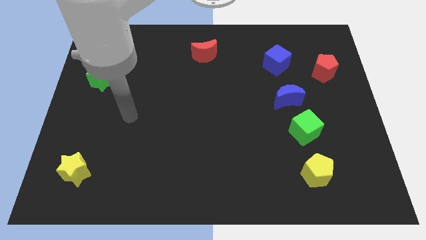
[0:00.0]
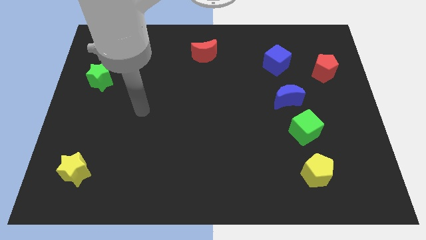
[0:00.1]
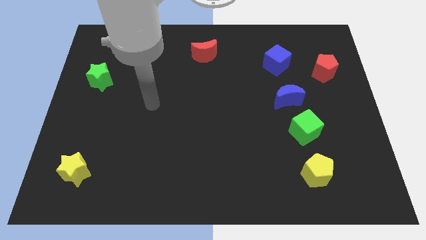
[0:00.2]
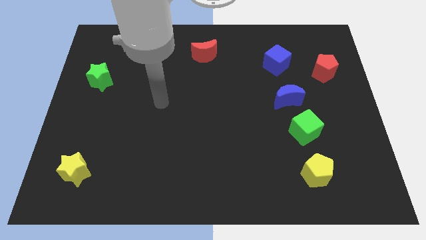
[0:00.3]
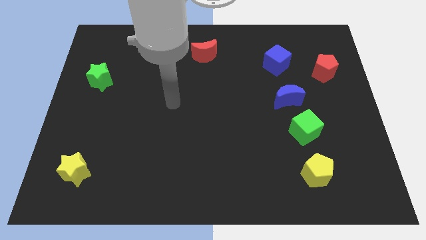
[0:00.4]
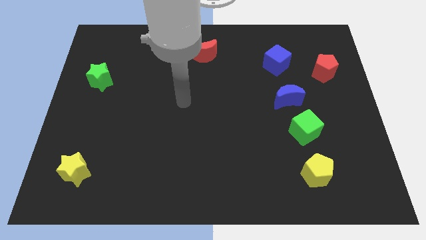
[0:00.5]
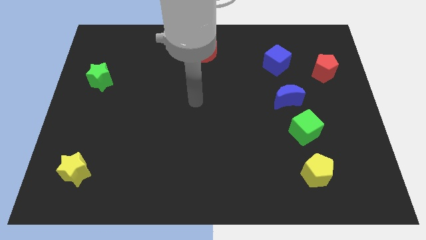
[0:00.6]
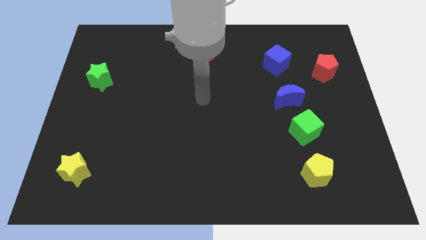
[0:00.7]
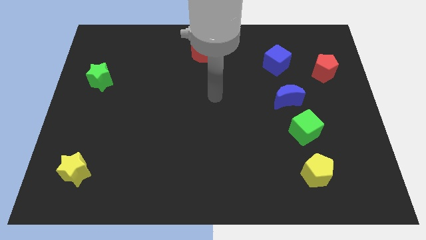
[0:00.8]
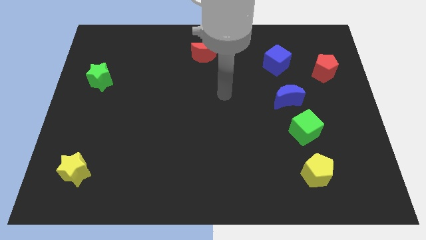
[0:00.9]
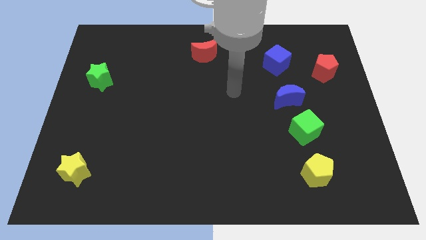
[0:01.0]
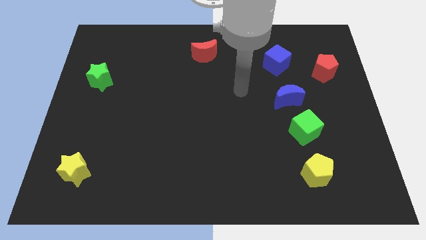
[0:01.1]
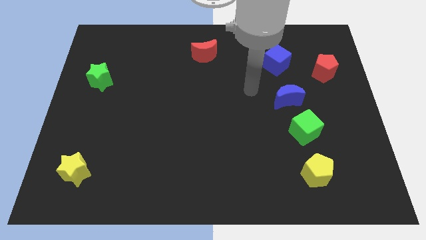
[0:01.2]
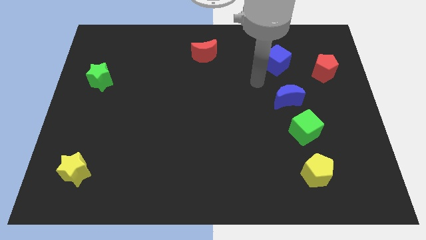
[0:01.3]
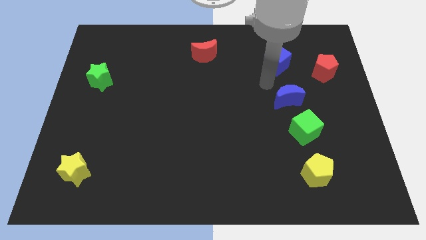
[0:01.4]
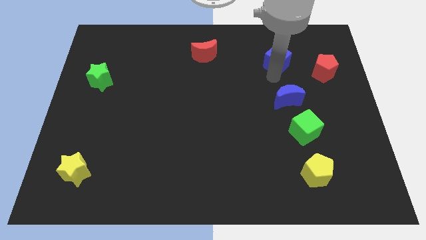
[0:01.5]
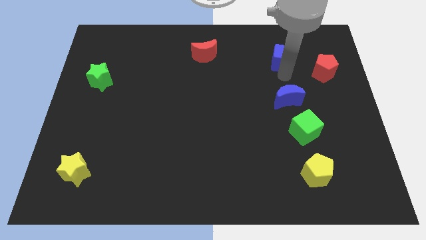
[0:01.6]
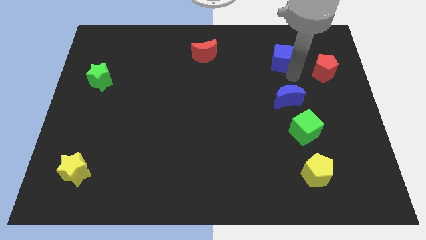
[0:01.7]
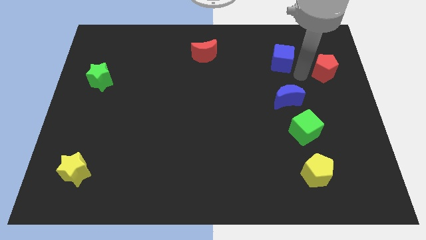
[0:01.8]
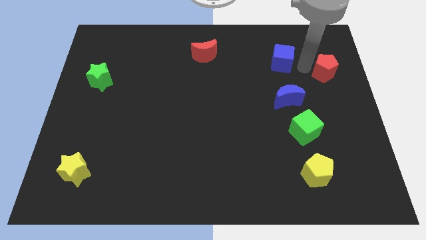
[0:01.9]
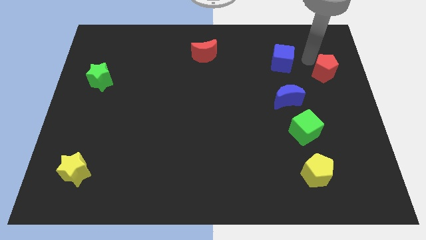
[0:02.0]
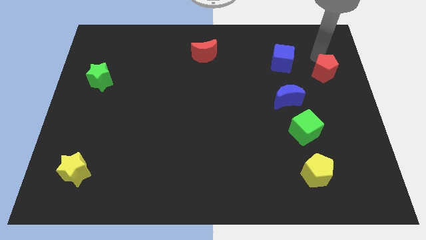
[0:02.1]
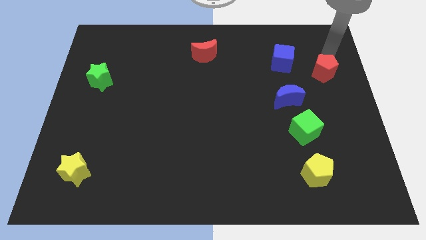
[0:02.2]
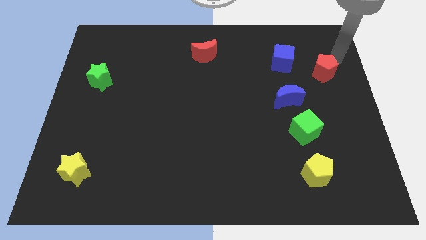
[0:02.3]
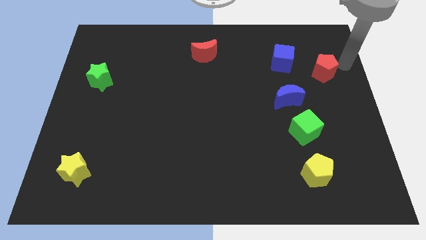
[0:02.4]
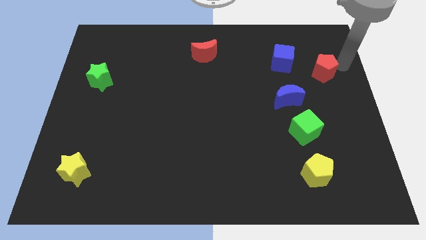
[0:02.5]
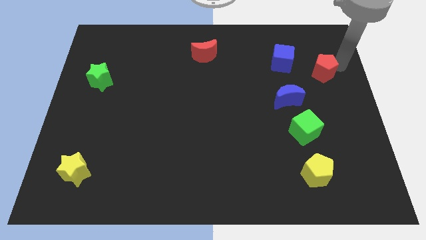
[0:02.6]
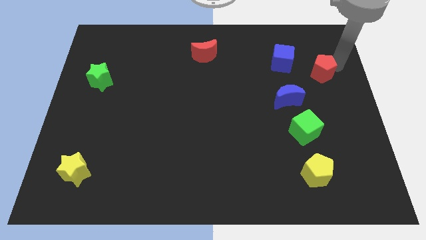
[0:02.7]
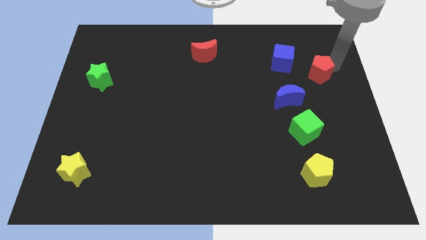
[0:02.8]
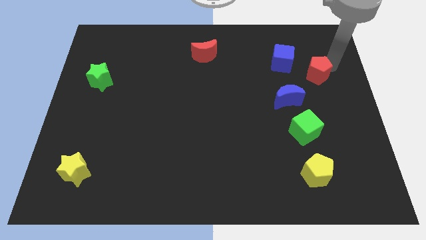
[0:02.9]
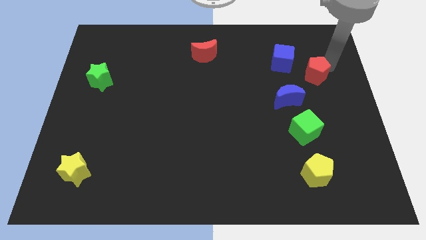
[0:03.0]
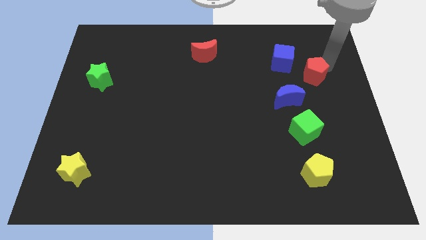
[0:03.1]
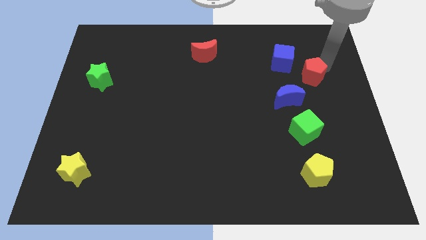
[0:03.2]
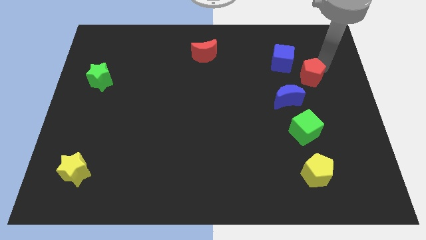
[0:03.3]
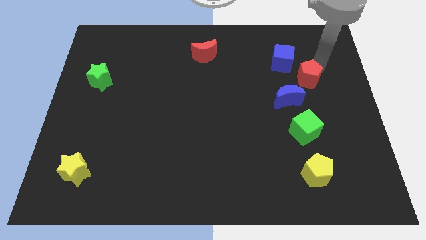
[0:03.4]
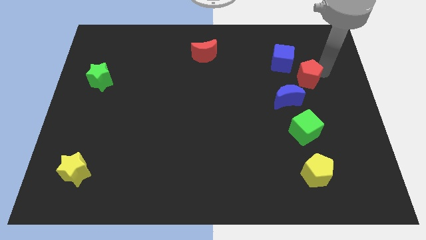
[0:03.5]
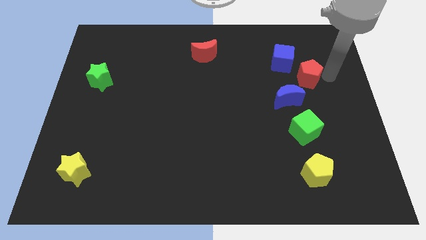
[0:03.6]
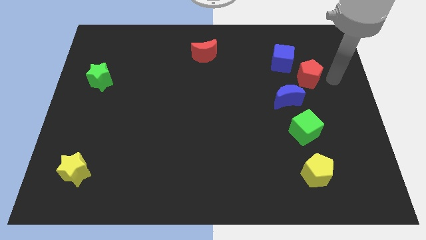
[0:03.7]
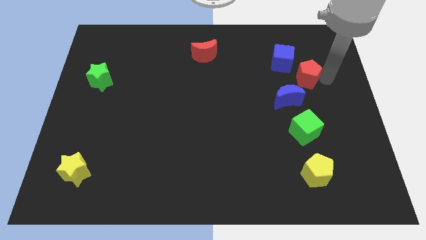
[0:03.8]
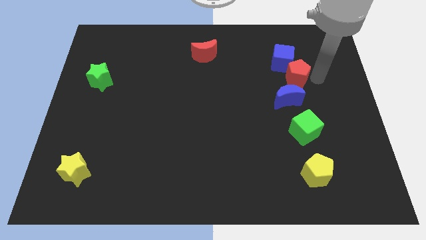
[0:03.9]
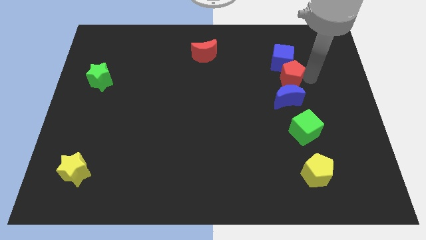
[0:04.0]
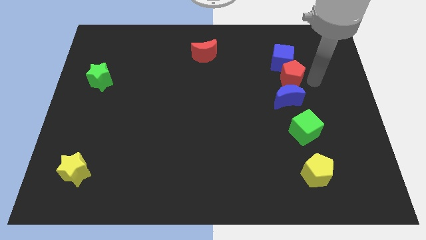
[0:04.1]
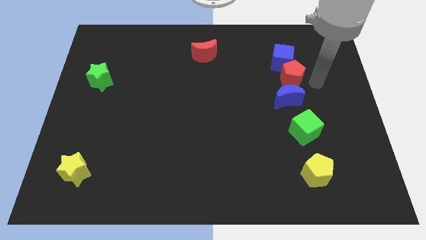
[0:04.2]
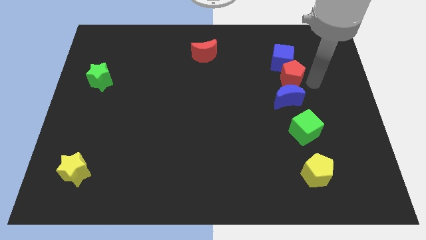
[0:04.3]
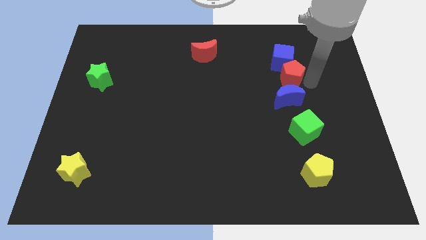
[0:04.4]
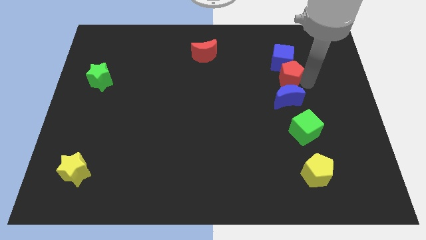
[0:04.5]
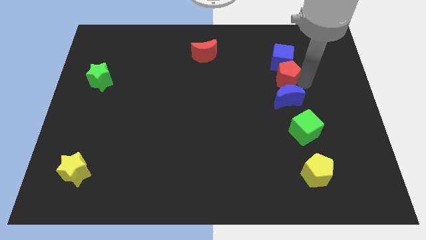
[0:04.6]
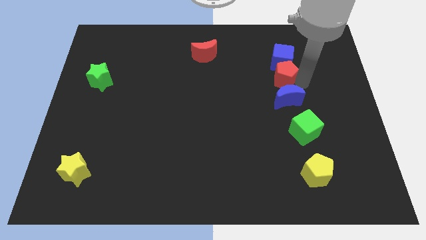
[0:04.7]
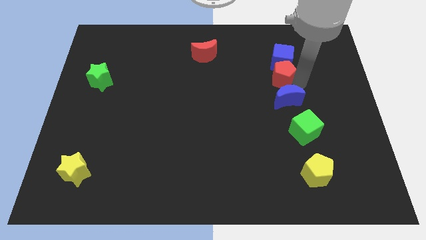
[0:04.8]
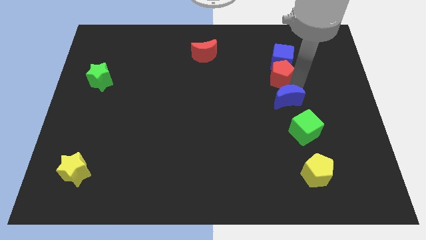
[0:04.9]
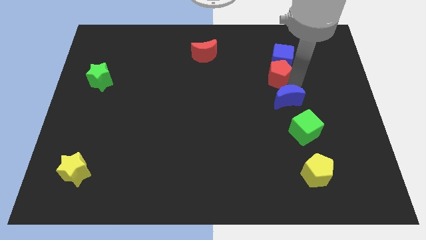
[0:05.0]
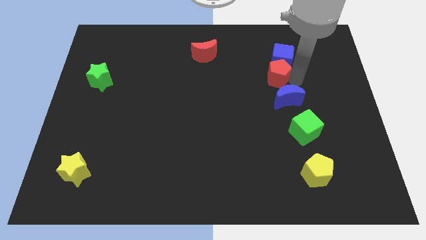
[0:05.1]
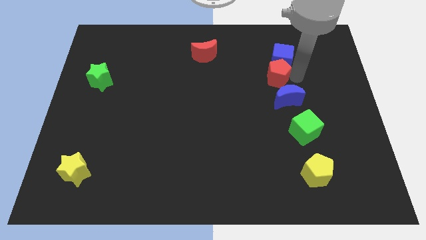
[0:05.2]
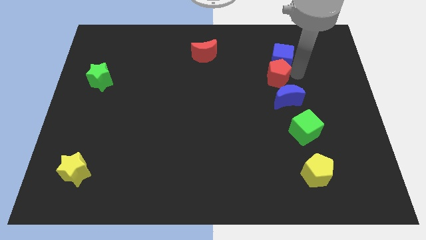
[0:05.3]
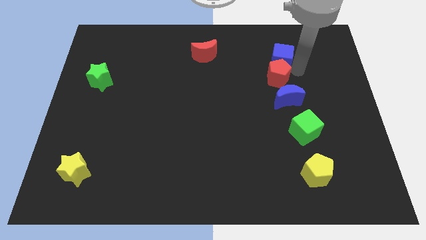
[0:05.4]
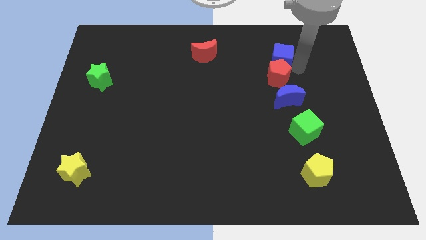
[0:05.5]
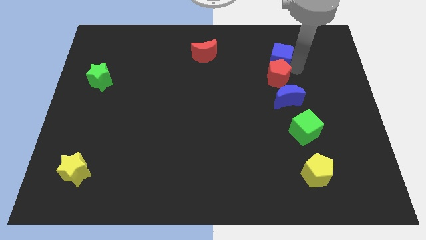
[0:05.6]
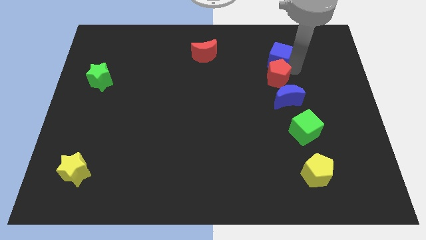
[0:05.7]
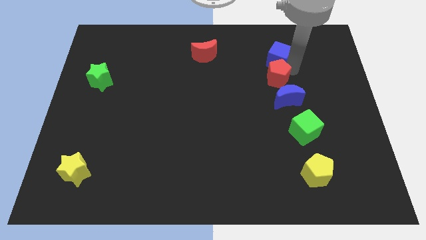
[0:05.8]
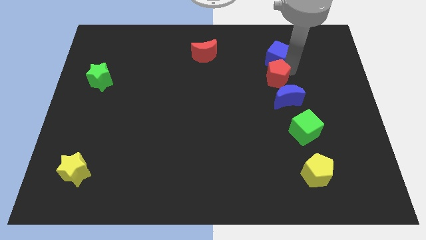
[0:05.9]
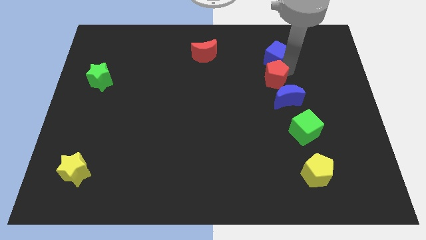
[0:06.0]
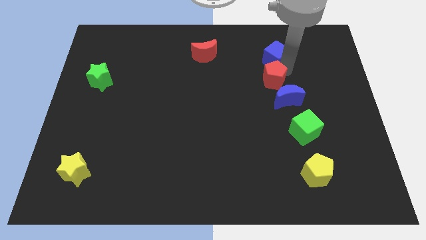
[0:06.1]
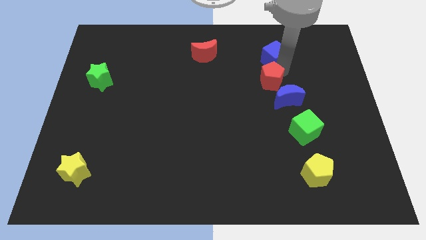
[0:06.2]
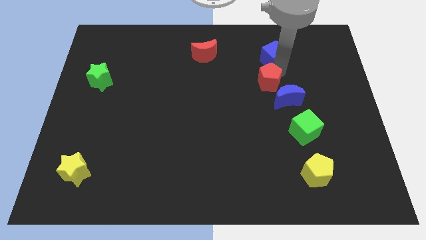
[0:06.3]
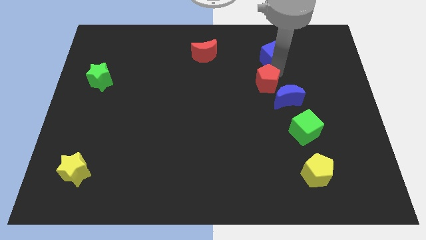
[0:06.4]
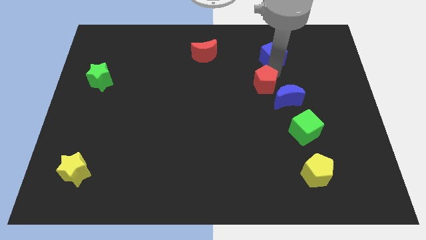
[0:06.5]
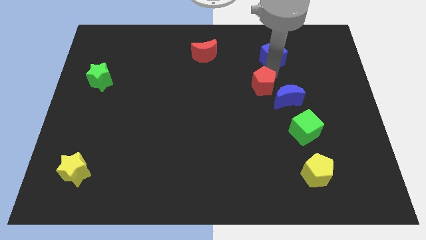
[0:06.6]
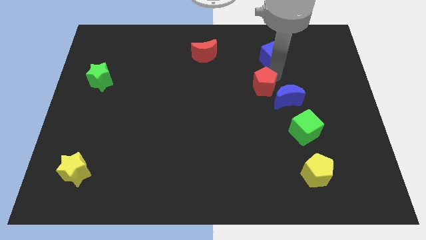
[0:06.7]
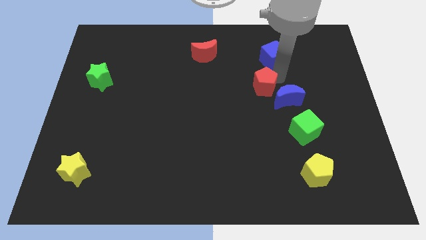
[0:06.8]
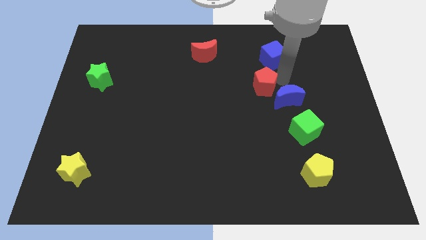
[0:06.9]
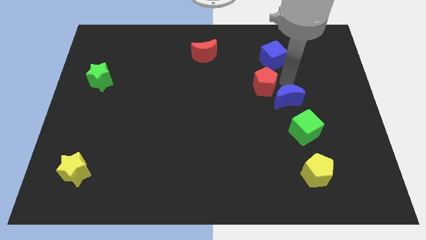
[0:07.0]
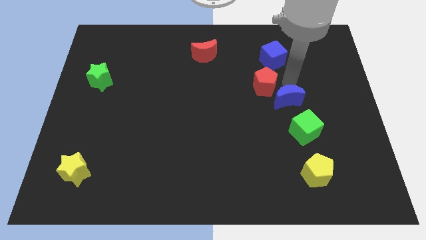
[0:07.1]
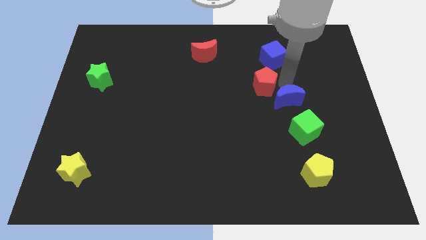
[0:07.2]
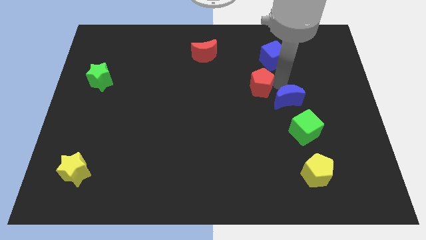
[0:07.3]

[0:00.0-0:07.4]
put the red pentagon to the middle of the board
